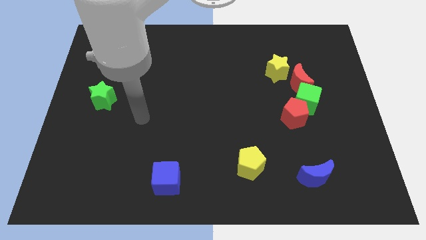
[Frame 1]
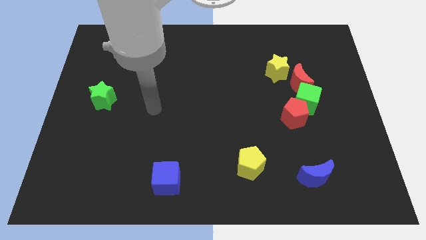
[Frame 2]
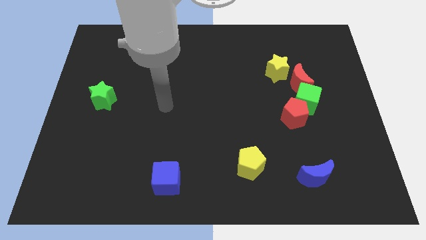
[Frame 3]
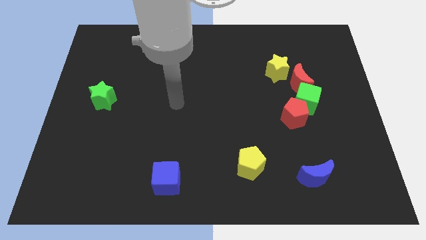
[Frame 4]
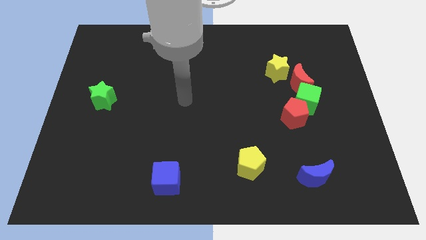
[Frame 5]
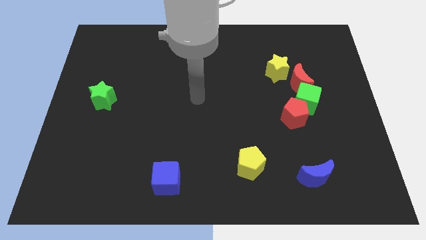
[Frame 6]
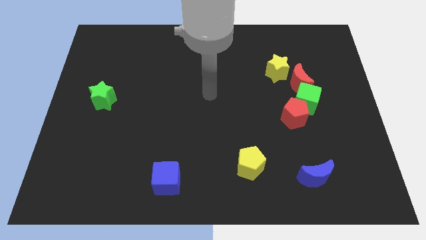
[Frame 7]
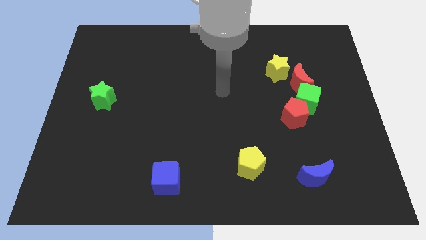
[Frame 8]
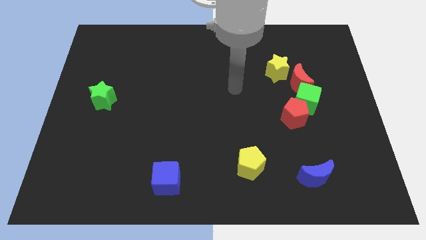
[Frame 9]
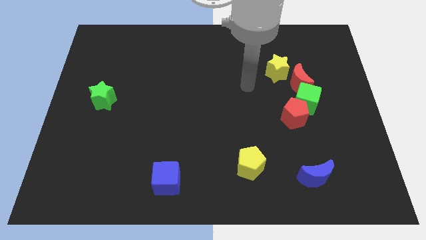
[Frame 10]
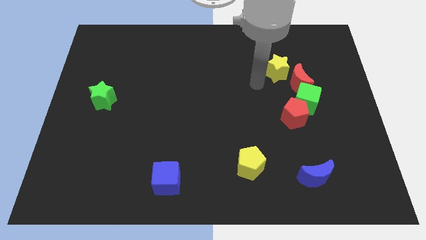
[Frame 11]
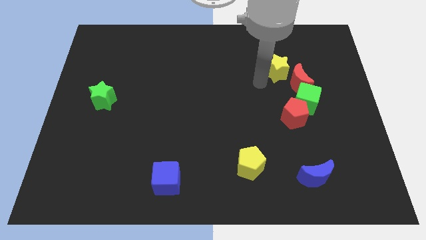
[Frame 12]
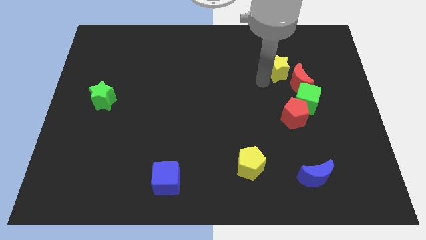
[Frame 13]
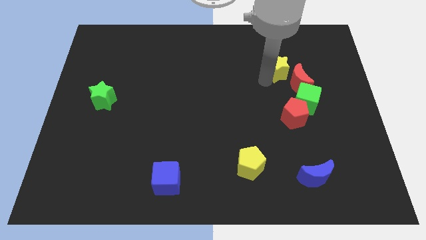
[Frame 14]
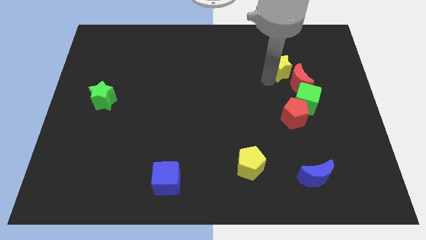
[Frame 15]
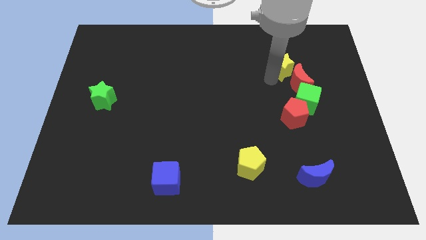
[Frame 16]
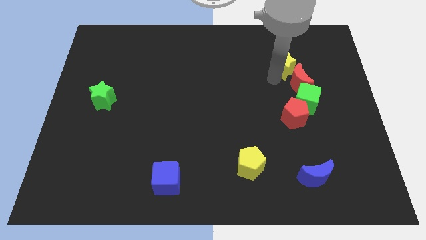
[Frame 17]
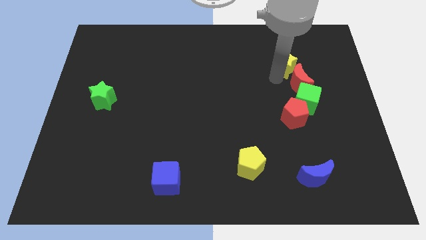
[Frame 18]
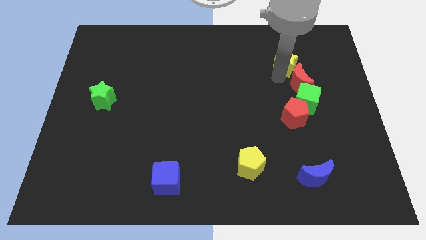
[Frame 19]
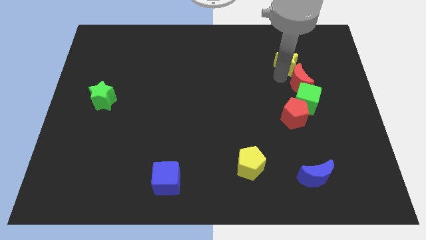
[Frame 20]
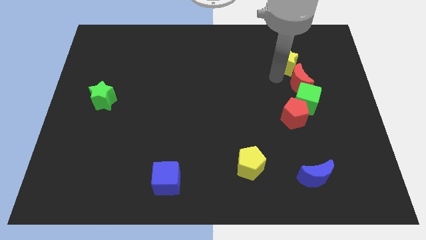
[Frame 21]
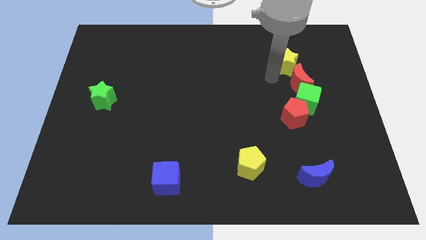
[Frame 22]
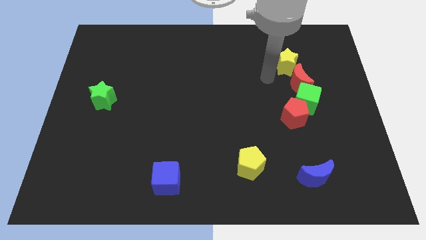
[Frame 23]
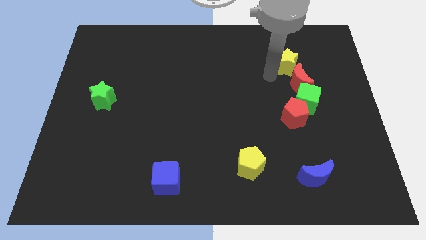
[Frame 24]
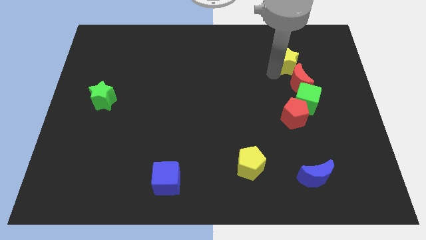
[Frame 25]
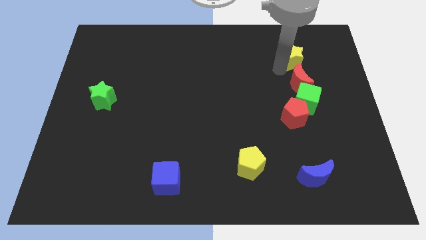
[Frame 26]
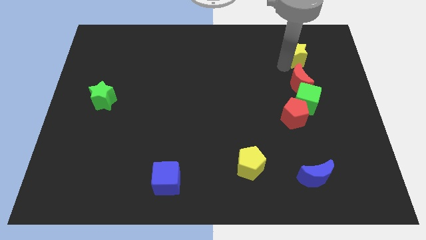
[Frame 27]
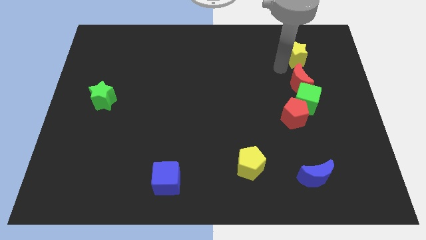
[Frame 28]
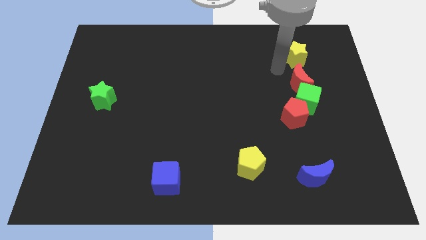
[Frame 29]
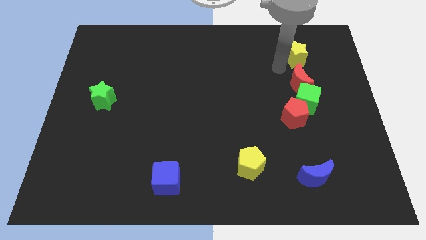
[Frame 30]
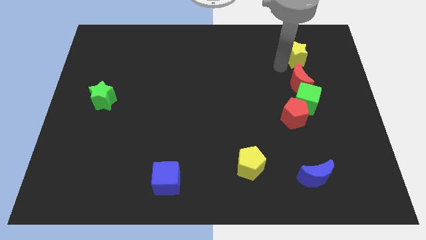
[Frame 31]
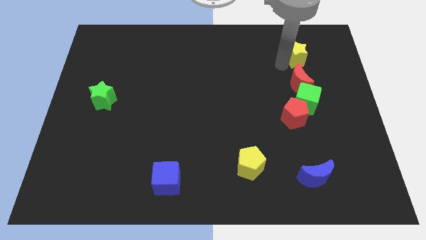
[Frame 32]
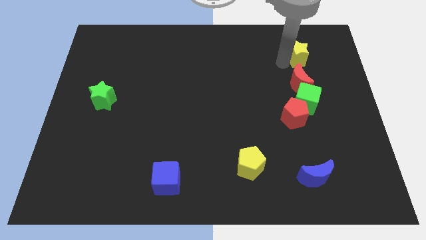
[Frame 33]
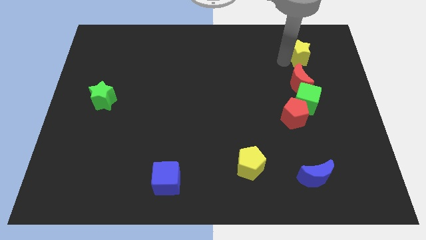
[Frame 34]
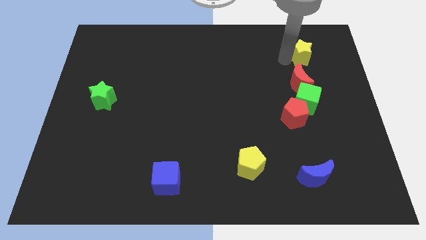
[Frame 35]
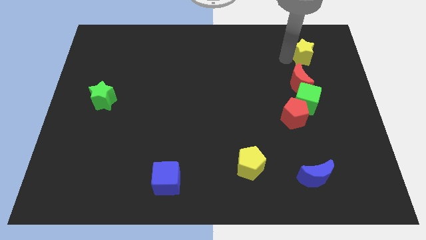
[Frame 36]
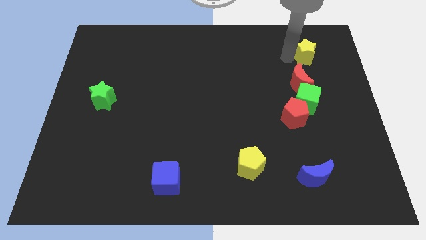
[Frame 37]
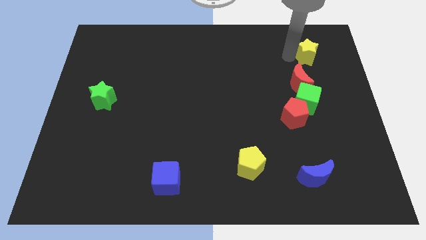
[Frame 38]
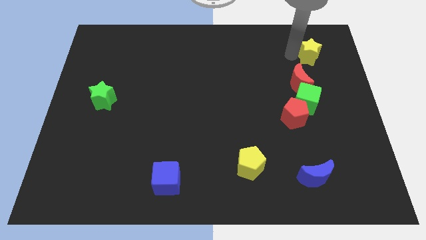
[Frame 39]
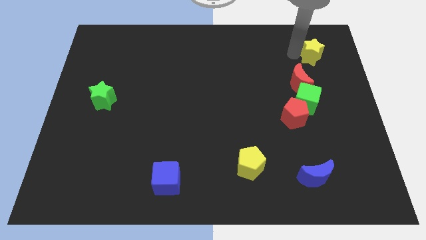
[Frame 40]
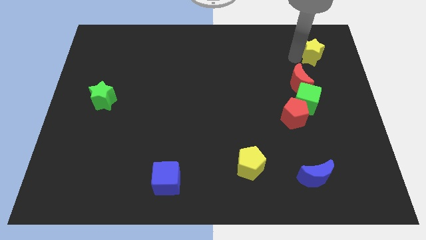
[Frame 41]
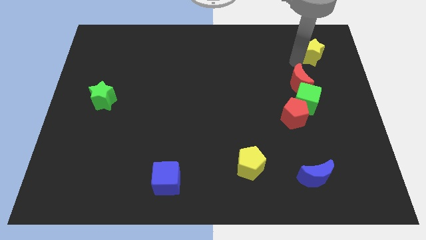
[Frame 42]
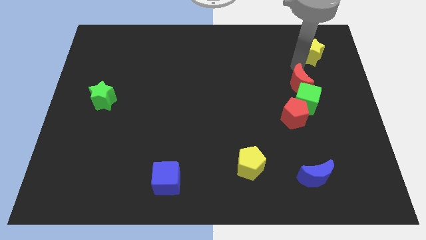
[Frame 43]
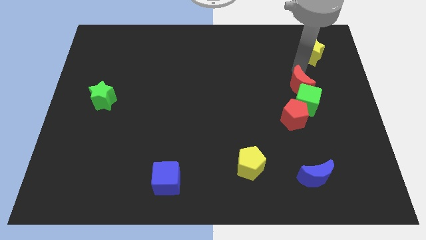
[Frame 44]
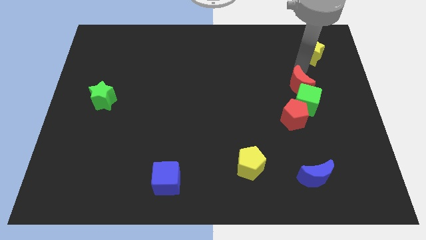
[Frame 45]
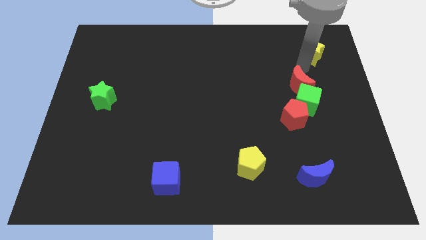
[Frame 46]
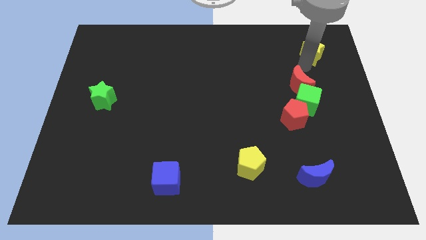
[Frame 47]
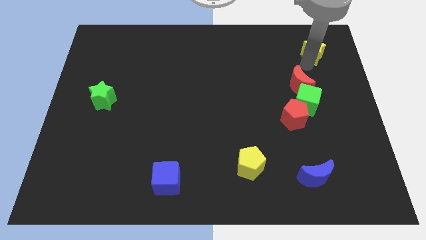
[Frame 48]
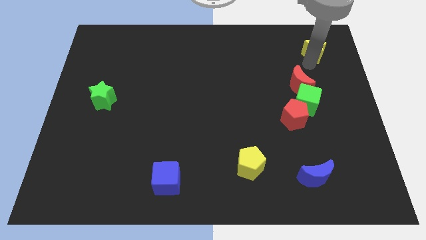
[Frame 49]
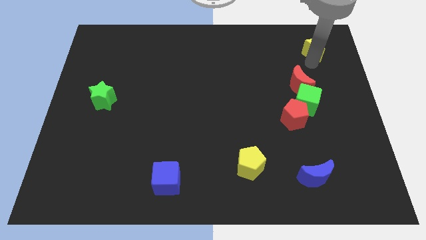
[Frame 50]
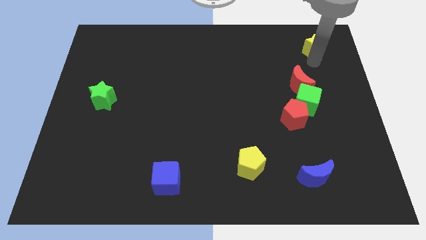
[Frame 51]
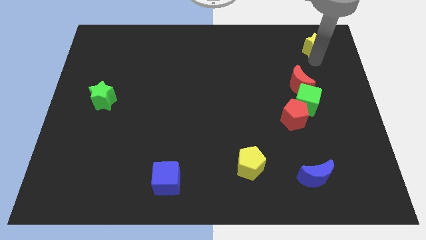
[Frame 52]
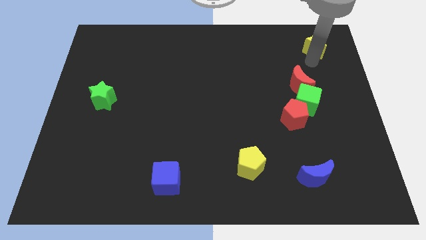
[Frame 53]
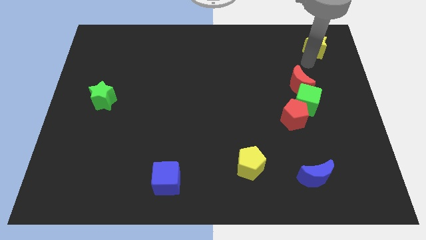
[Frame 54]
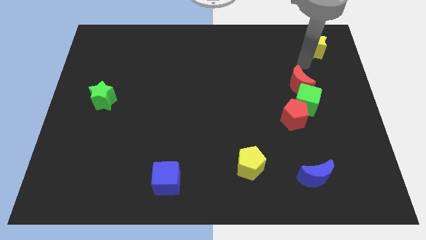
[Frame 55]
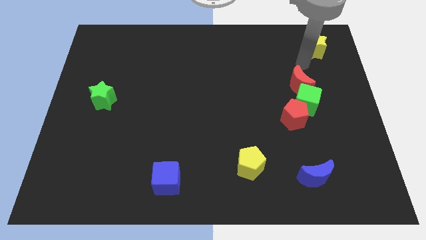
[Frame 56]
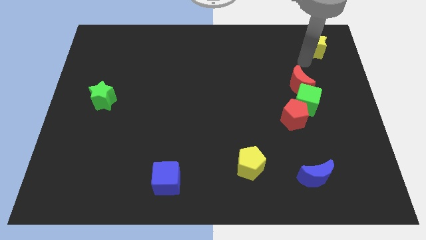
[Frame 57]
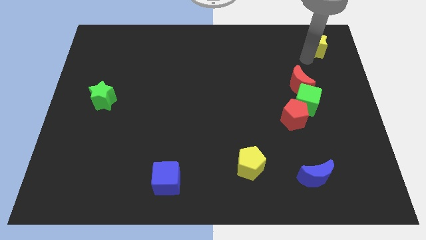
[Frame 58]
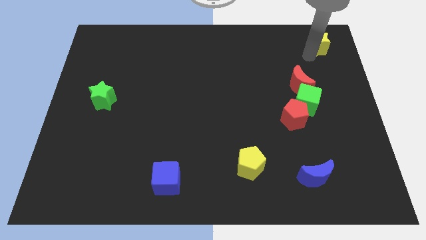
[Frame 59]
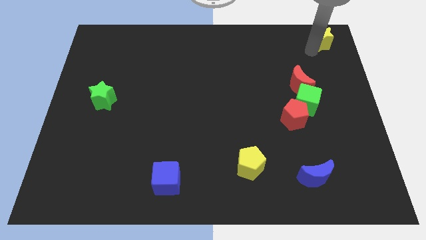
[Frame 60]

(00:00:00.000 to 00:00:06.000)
push the yellow star to the top right
